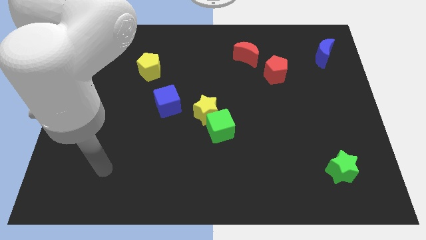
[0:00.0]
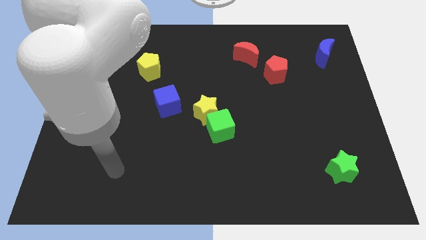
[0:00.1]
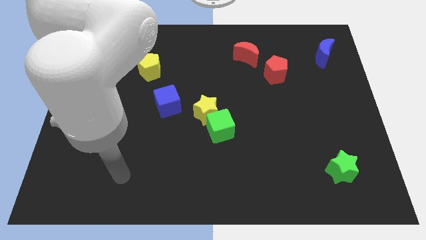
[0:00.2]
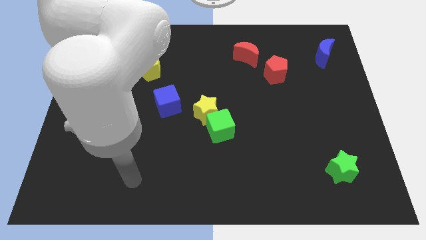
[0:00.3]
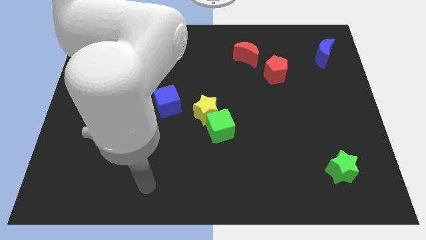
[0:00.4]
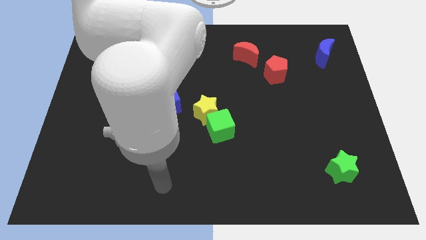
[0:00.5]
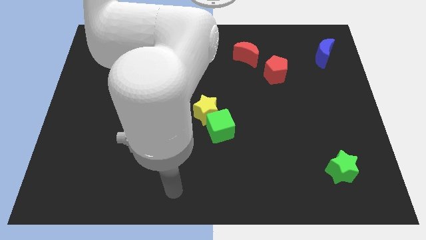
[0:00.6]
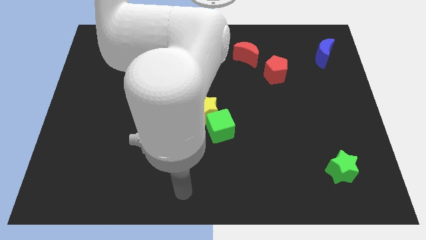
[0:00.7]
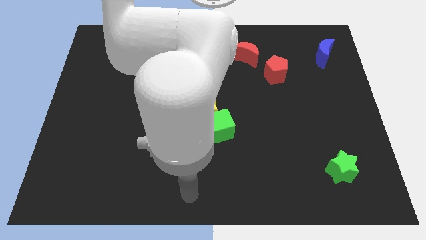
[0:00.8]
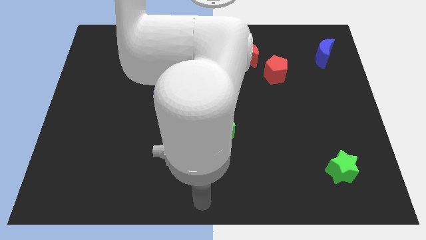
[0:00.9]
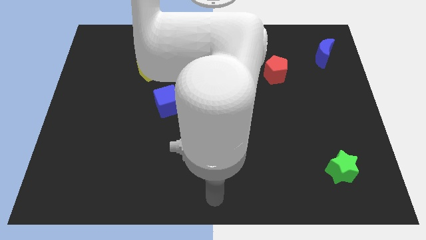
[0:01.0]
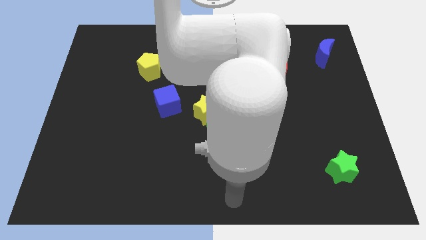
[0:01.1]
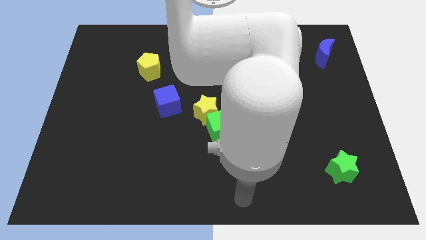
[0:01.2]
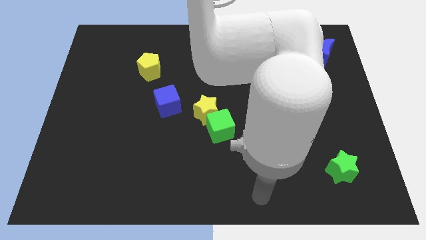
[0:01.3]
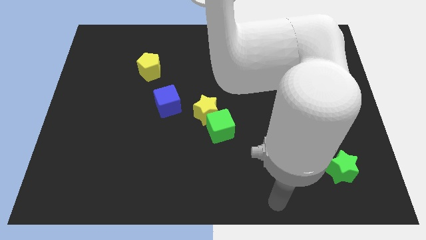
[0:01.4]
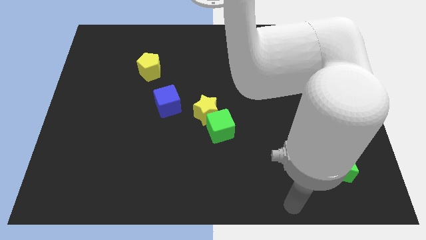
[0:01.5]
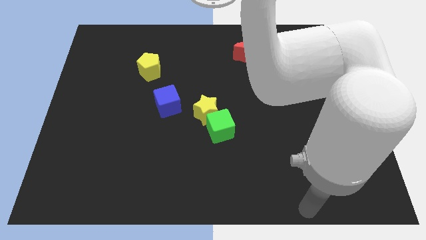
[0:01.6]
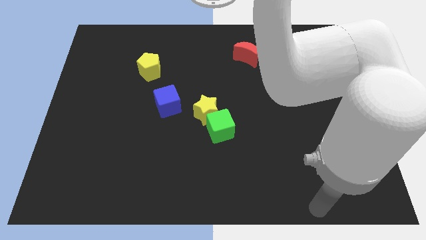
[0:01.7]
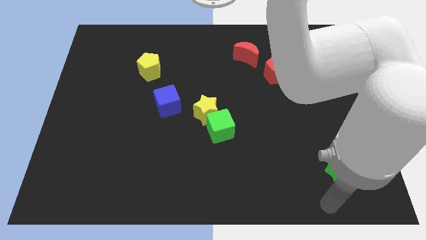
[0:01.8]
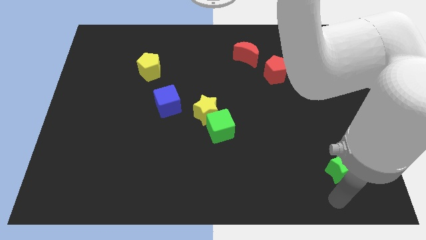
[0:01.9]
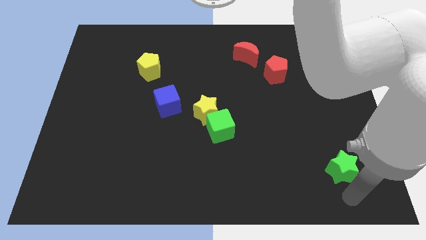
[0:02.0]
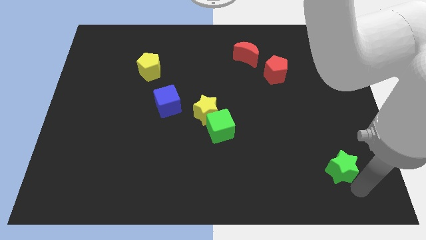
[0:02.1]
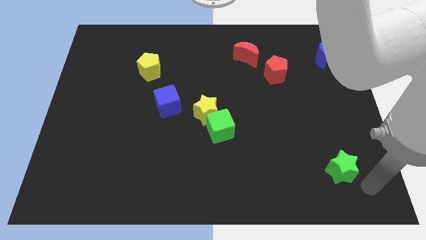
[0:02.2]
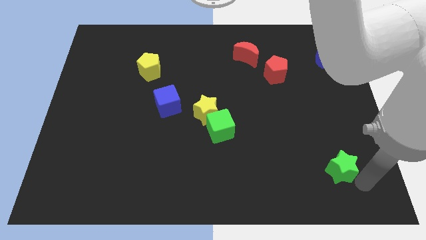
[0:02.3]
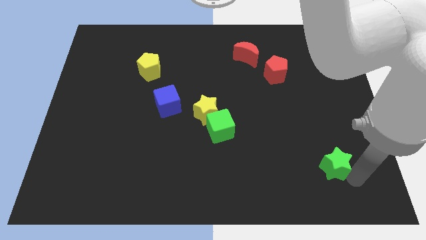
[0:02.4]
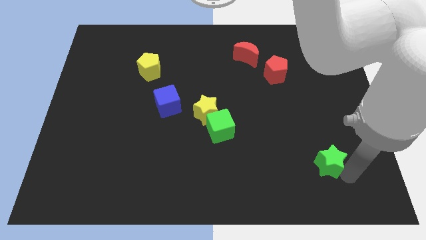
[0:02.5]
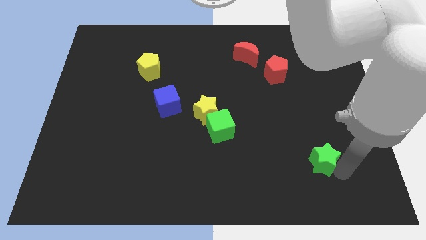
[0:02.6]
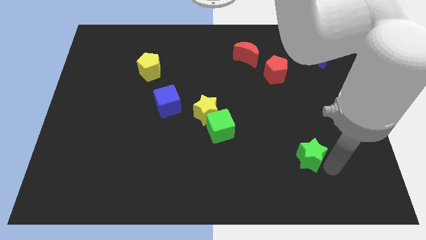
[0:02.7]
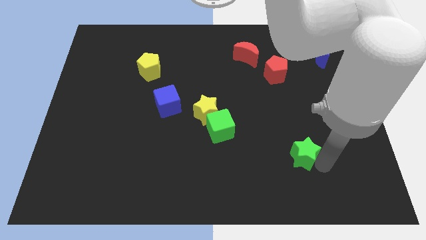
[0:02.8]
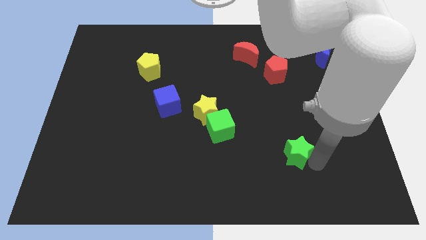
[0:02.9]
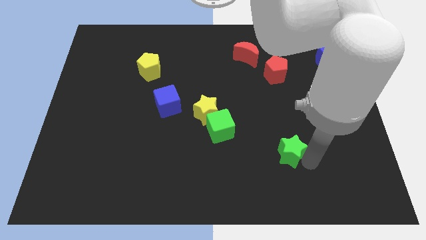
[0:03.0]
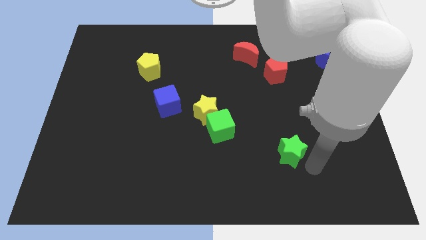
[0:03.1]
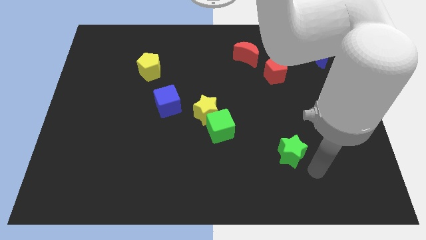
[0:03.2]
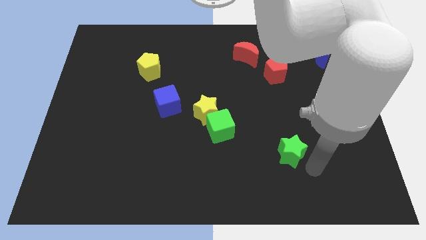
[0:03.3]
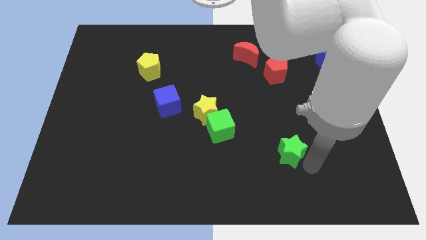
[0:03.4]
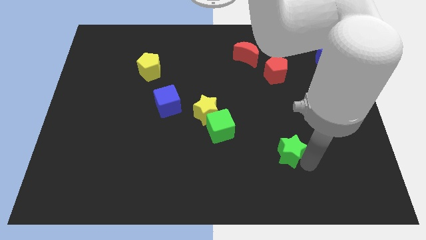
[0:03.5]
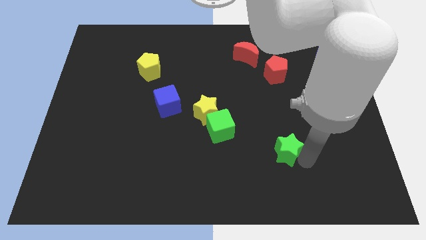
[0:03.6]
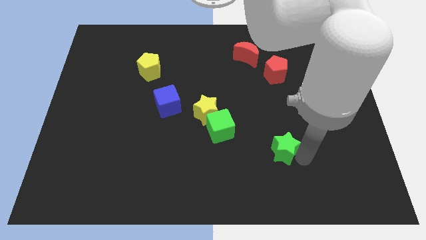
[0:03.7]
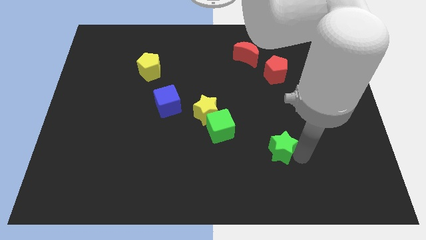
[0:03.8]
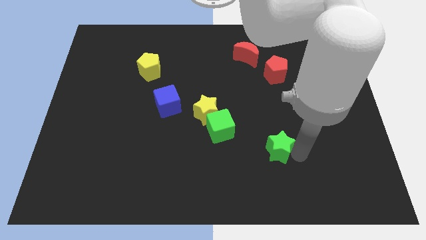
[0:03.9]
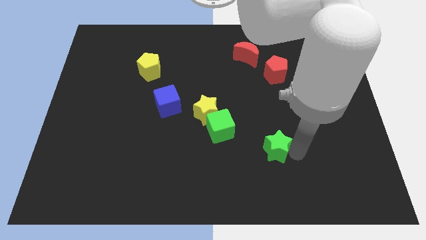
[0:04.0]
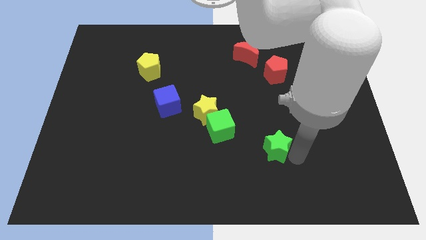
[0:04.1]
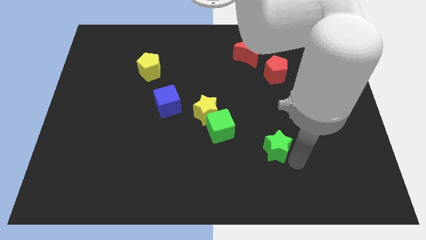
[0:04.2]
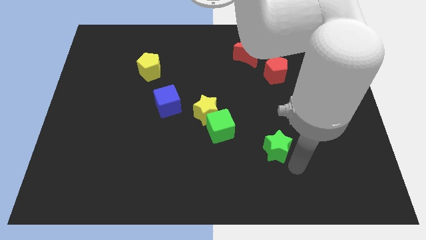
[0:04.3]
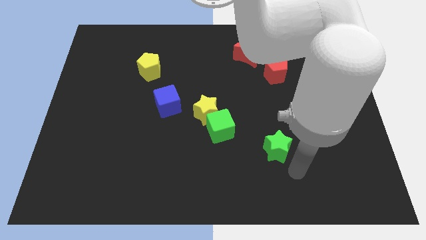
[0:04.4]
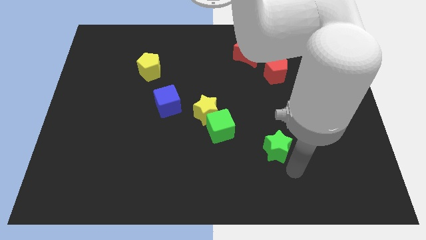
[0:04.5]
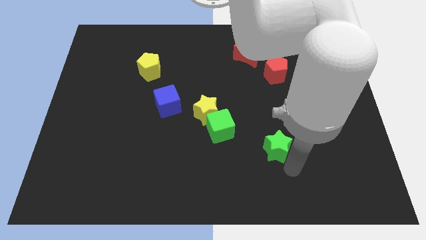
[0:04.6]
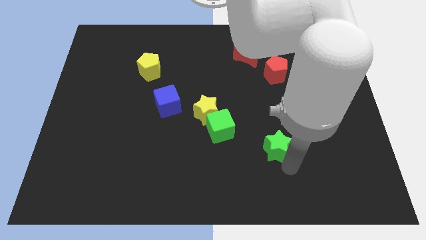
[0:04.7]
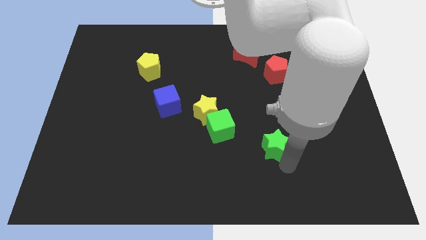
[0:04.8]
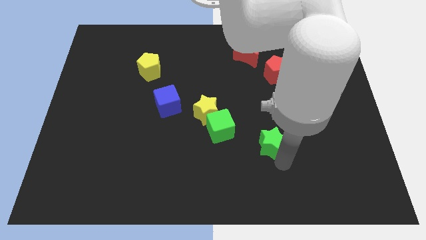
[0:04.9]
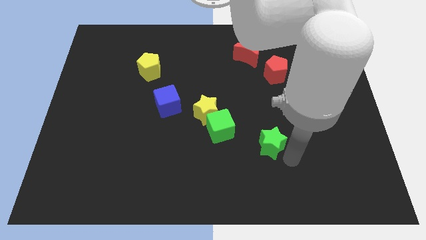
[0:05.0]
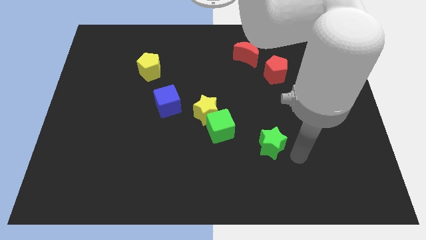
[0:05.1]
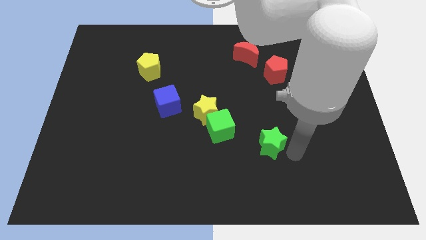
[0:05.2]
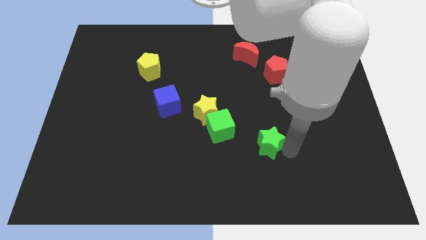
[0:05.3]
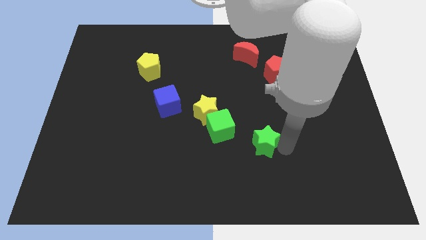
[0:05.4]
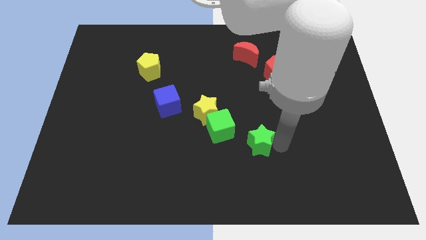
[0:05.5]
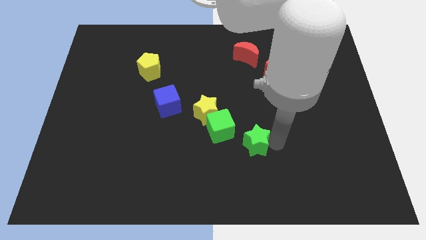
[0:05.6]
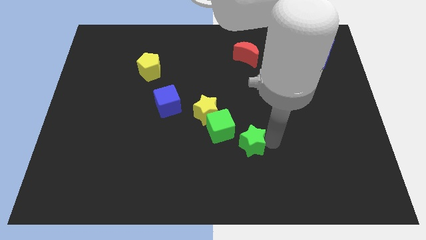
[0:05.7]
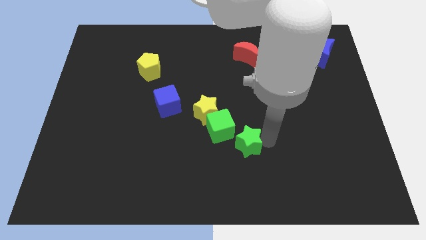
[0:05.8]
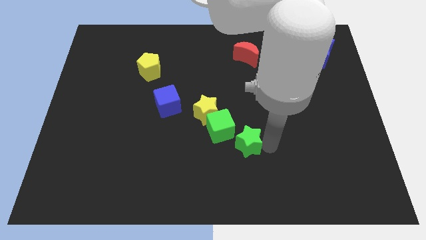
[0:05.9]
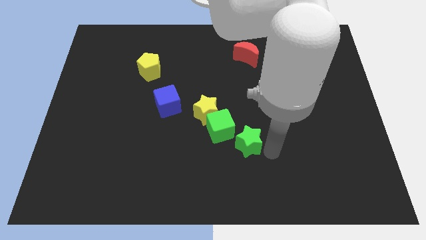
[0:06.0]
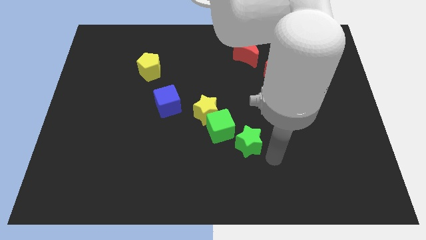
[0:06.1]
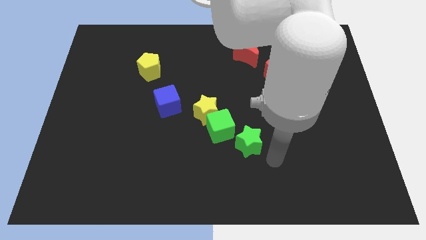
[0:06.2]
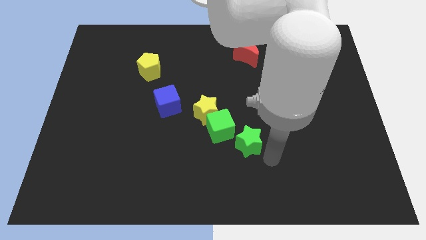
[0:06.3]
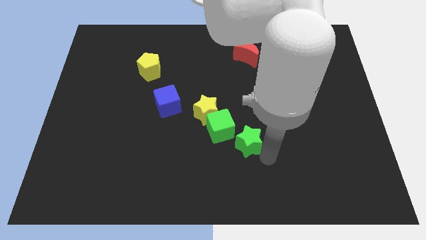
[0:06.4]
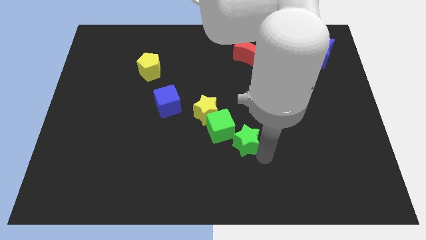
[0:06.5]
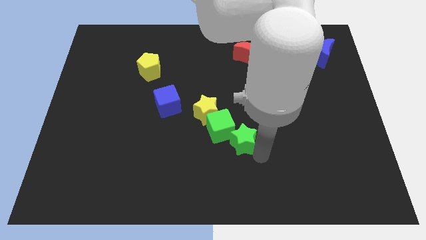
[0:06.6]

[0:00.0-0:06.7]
slide the green star close to the green cube
